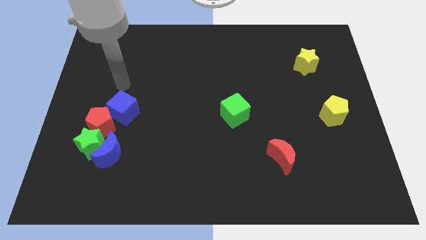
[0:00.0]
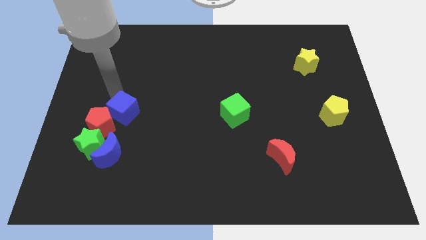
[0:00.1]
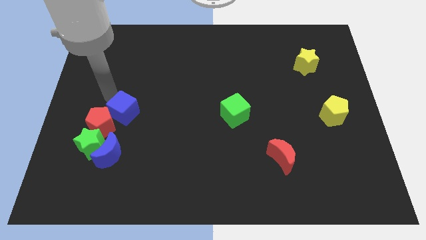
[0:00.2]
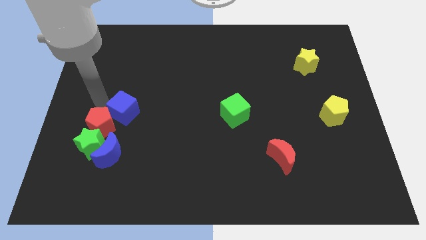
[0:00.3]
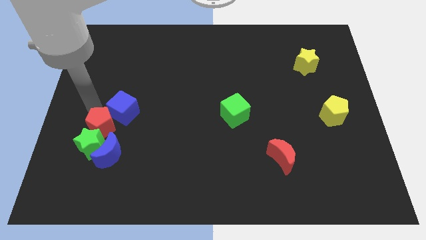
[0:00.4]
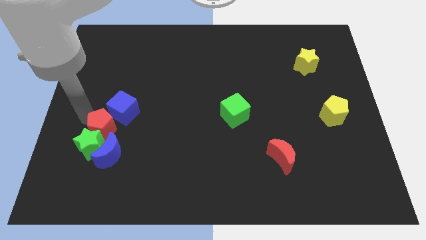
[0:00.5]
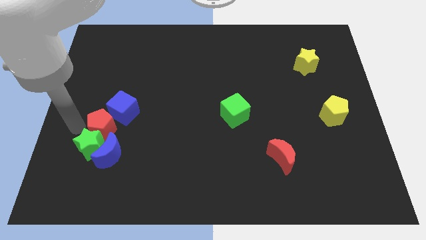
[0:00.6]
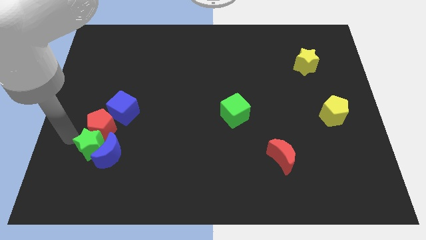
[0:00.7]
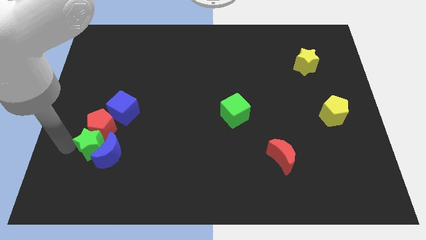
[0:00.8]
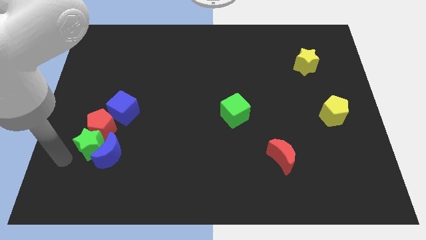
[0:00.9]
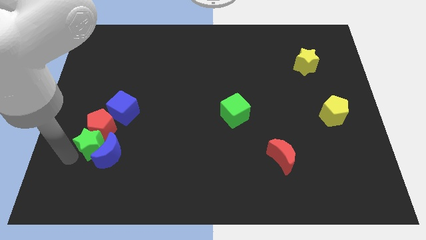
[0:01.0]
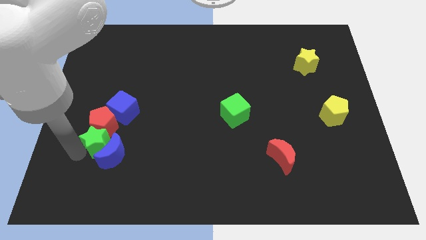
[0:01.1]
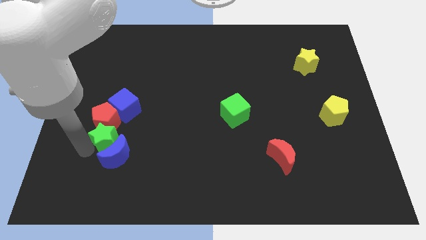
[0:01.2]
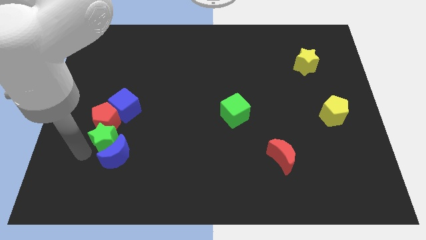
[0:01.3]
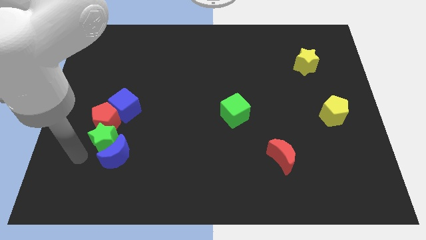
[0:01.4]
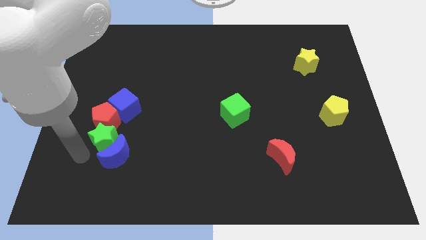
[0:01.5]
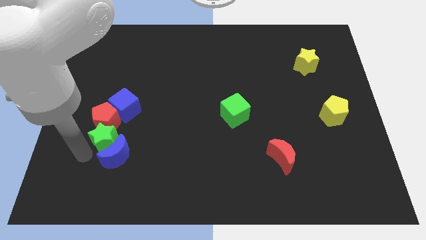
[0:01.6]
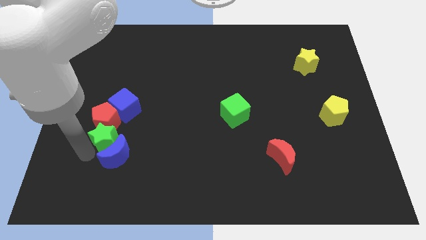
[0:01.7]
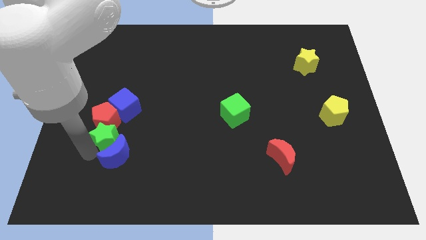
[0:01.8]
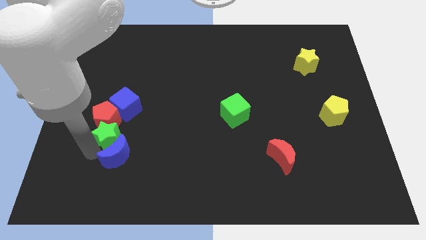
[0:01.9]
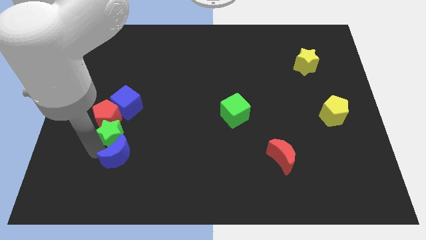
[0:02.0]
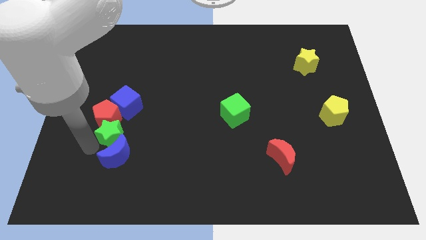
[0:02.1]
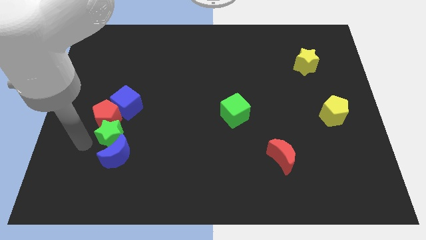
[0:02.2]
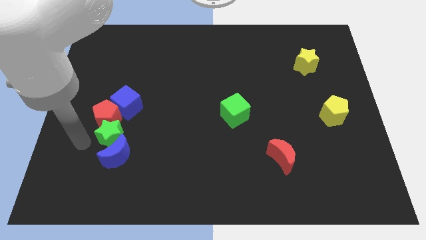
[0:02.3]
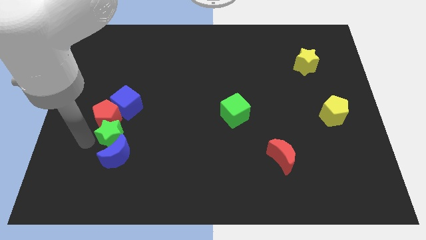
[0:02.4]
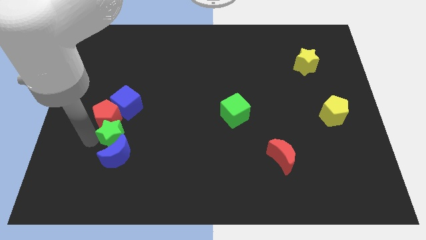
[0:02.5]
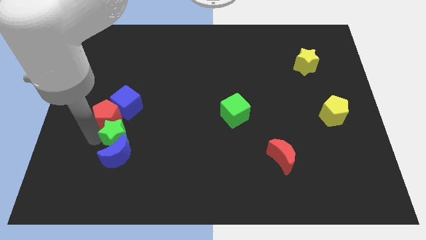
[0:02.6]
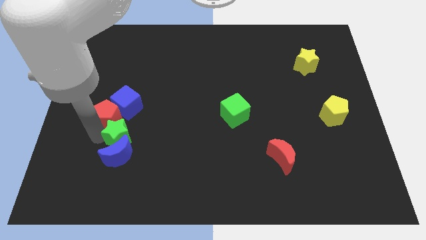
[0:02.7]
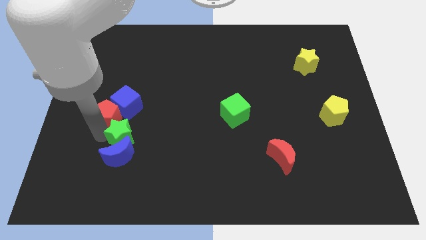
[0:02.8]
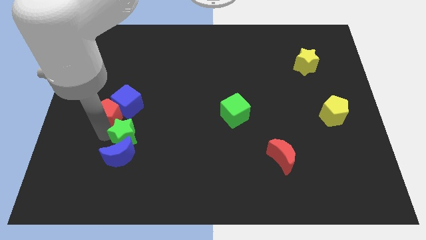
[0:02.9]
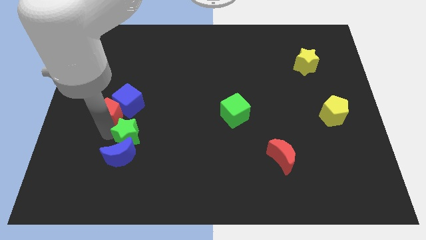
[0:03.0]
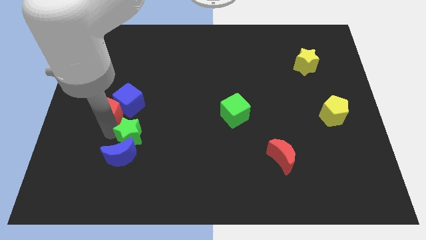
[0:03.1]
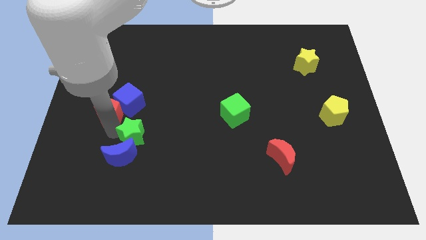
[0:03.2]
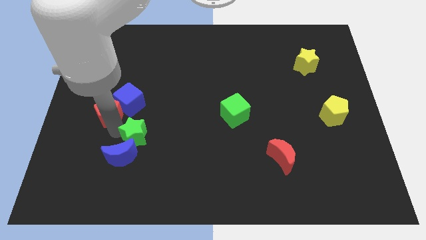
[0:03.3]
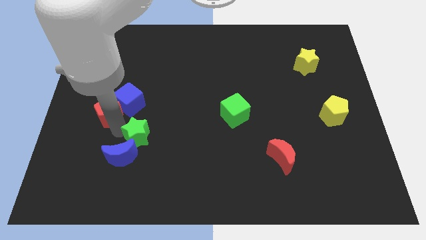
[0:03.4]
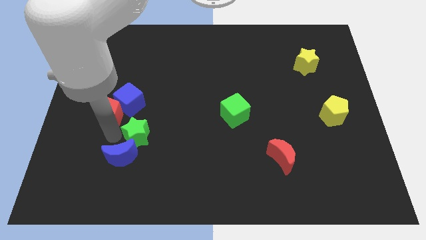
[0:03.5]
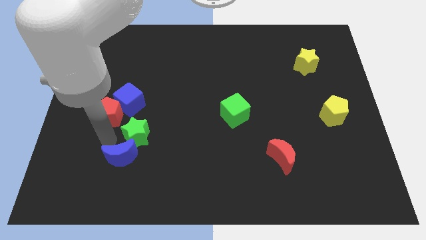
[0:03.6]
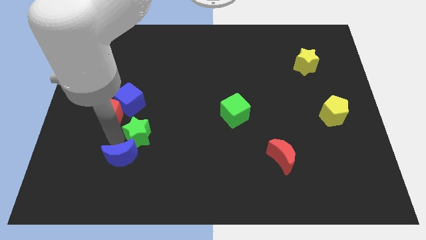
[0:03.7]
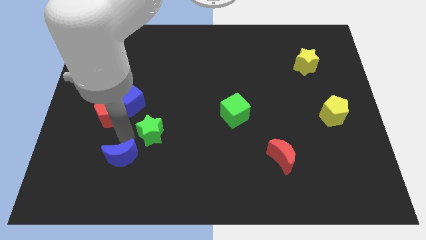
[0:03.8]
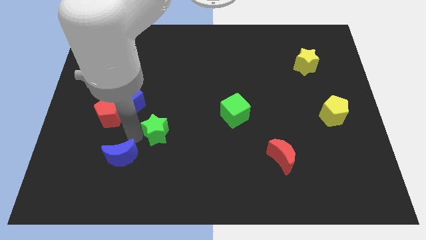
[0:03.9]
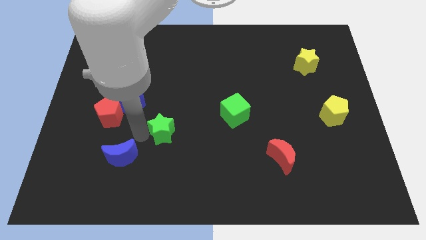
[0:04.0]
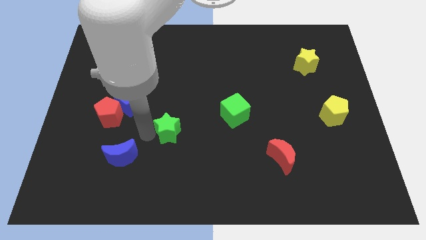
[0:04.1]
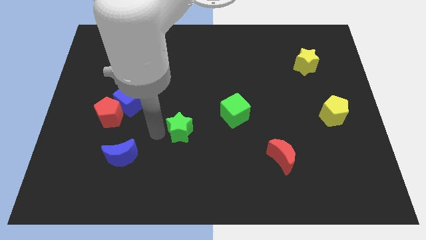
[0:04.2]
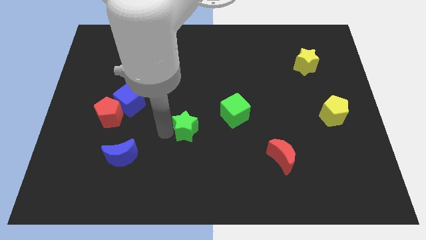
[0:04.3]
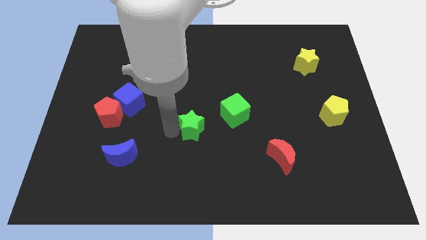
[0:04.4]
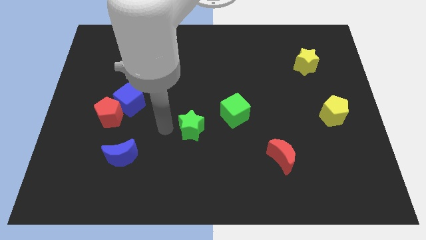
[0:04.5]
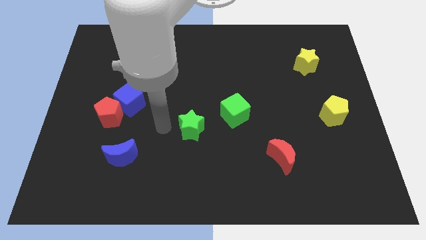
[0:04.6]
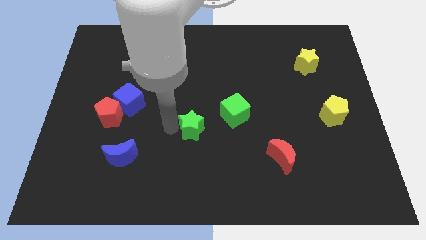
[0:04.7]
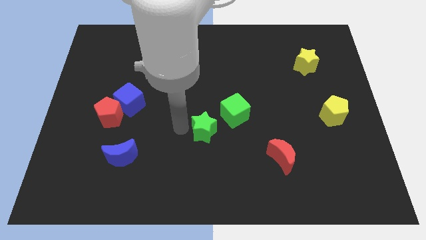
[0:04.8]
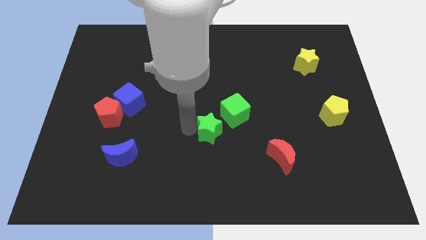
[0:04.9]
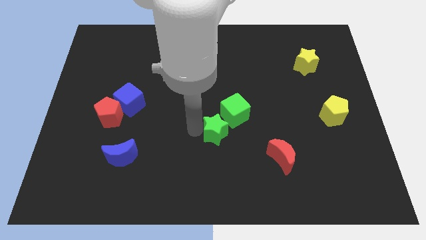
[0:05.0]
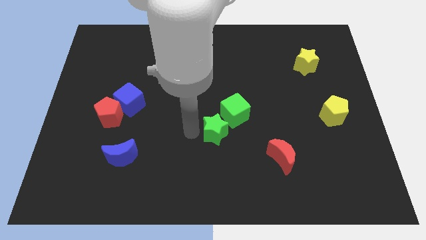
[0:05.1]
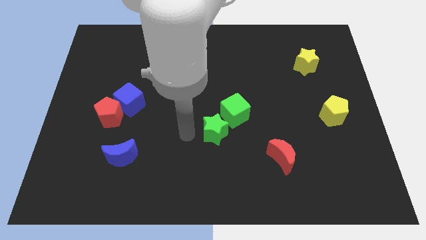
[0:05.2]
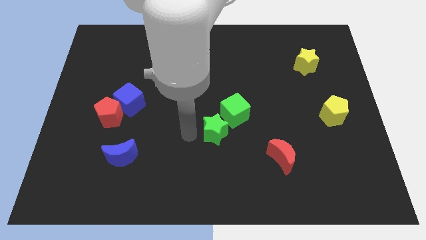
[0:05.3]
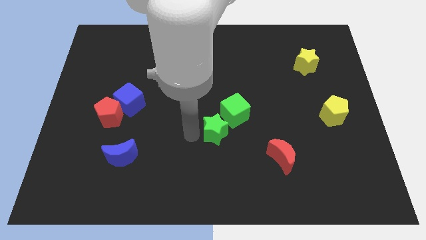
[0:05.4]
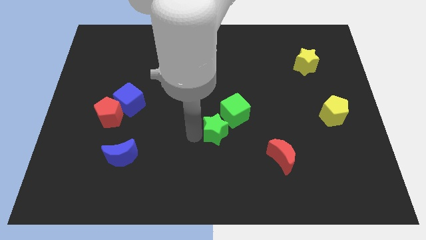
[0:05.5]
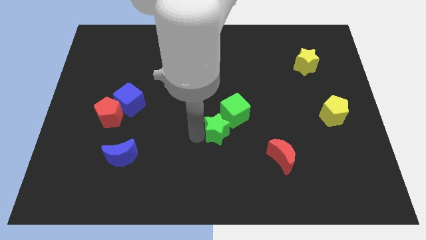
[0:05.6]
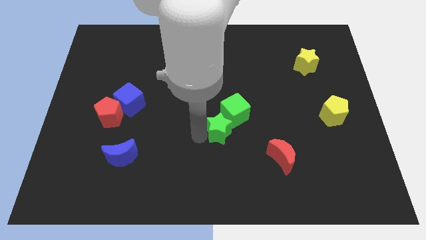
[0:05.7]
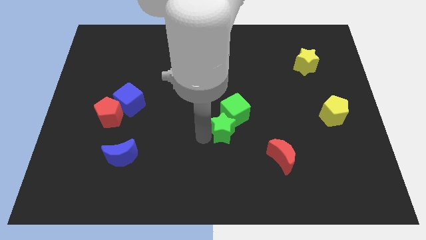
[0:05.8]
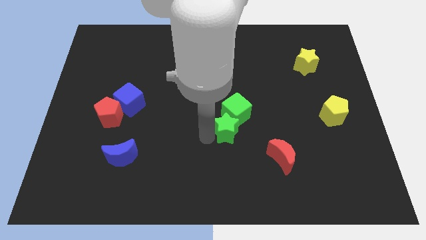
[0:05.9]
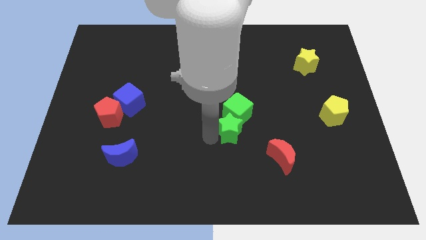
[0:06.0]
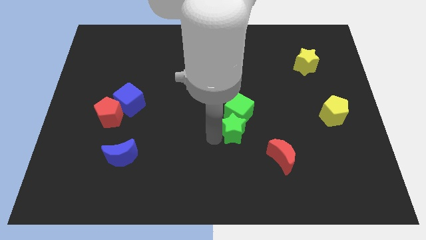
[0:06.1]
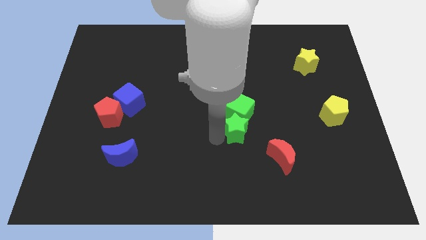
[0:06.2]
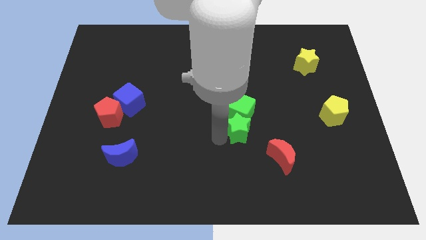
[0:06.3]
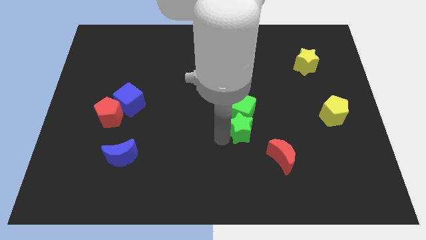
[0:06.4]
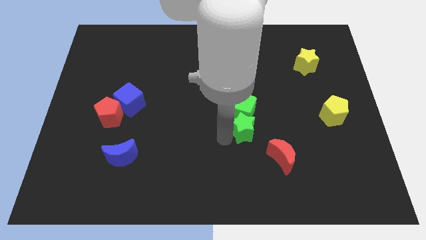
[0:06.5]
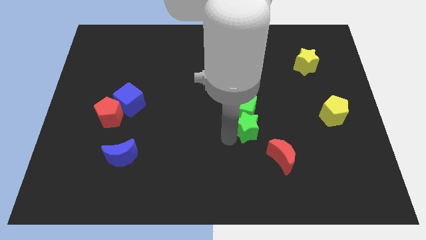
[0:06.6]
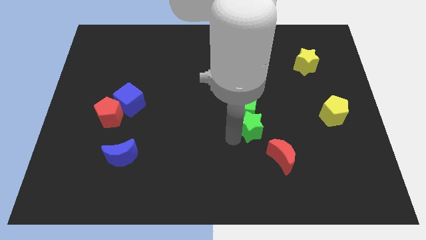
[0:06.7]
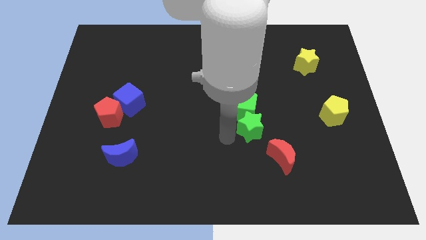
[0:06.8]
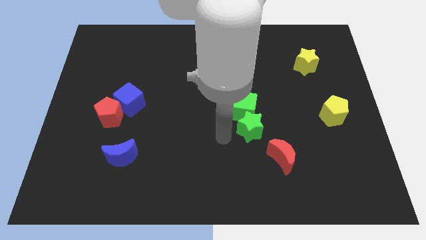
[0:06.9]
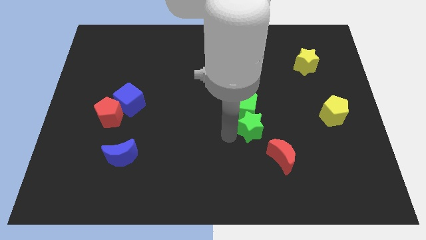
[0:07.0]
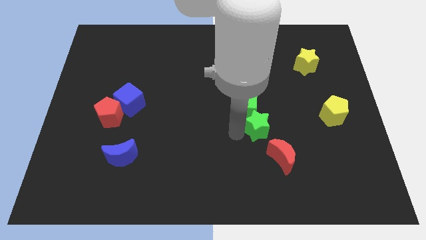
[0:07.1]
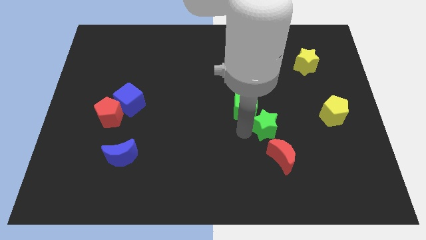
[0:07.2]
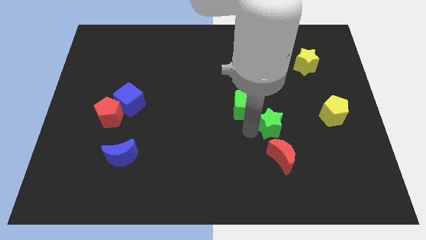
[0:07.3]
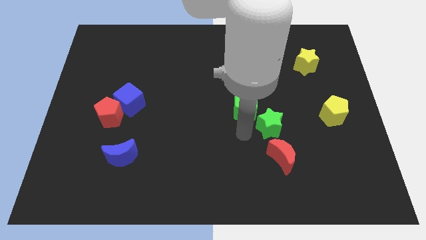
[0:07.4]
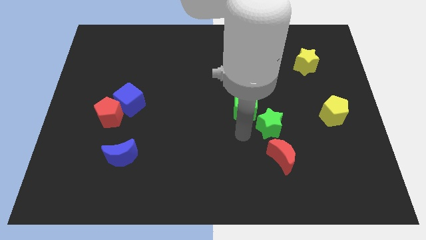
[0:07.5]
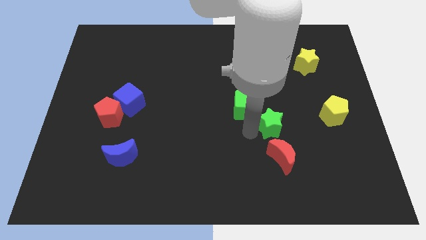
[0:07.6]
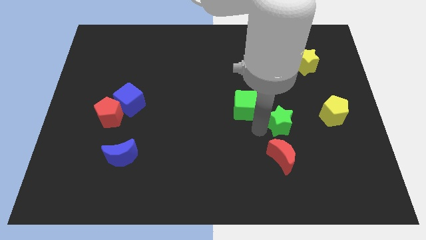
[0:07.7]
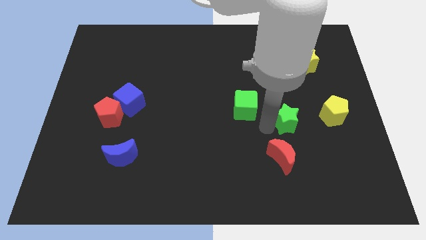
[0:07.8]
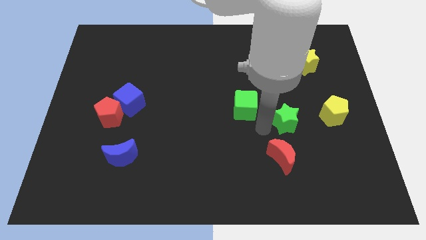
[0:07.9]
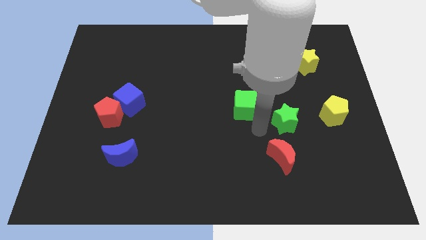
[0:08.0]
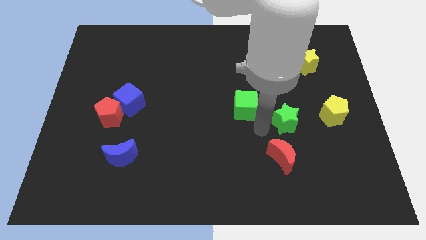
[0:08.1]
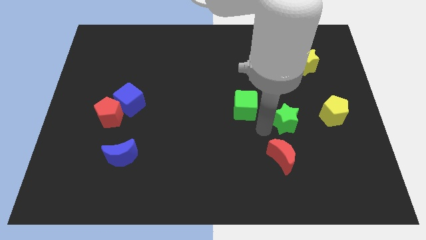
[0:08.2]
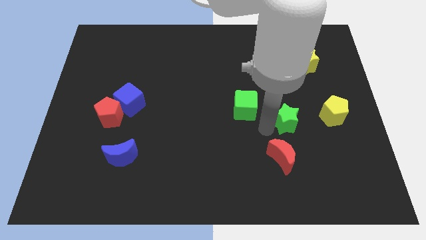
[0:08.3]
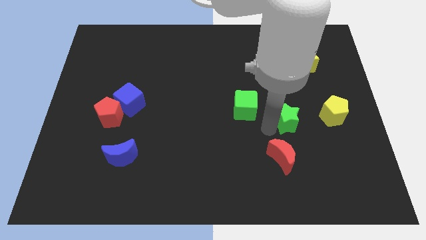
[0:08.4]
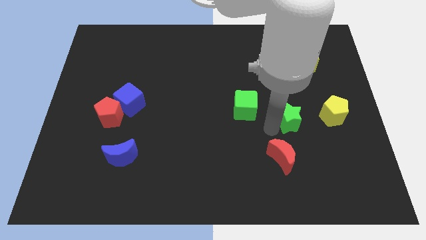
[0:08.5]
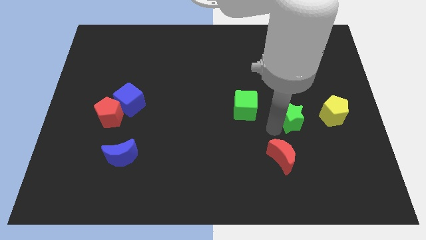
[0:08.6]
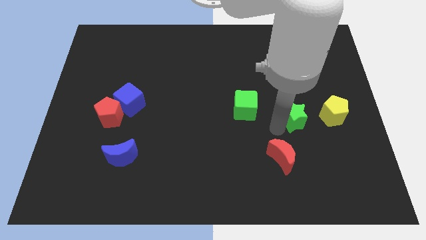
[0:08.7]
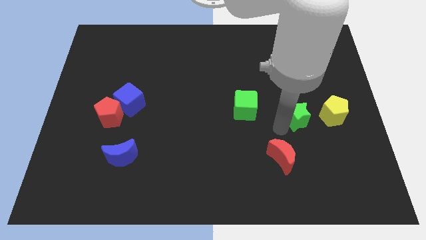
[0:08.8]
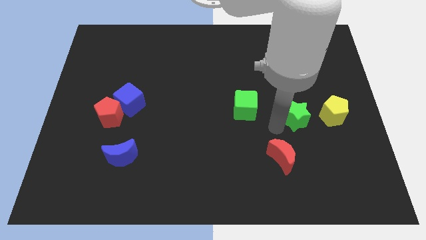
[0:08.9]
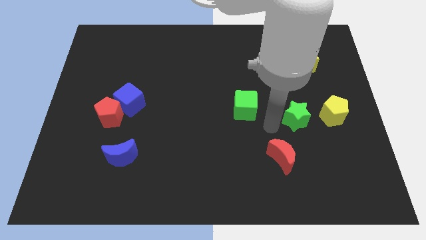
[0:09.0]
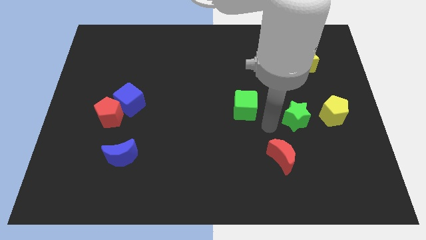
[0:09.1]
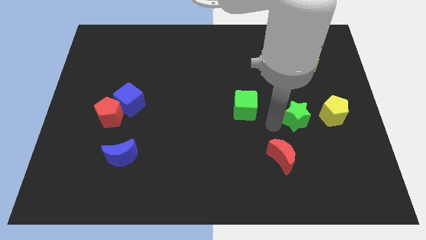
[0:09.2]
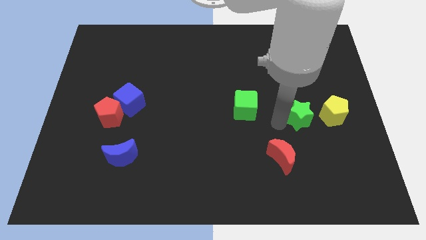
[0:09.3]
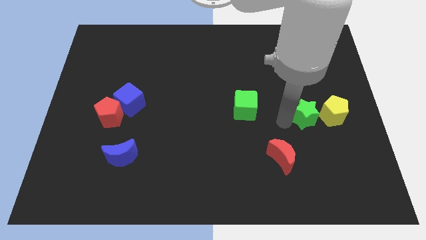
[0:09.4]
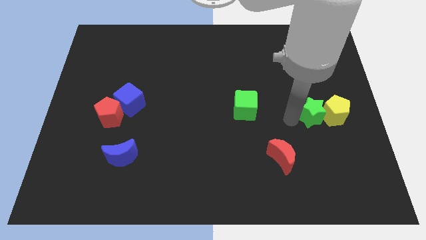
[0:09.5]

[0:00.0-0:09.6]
push the green star next to the yellow pentagon
